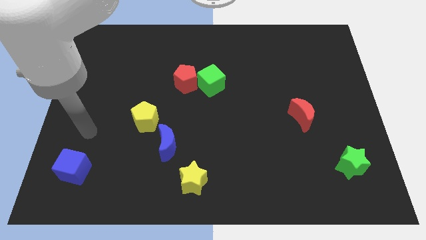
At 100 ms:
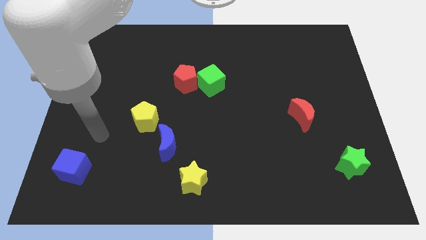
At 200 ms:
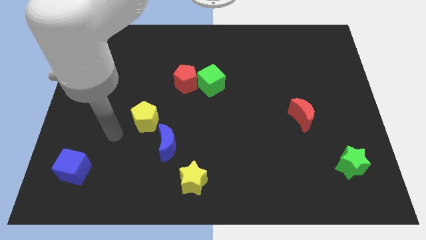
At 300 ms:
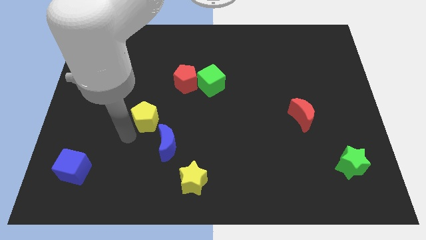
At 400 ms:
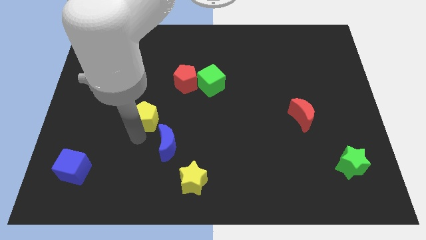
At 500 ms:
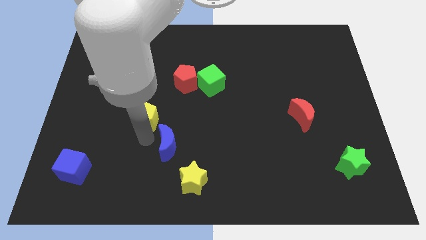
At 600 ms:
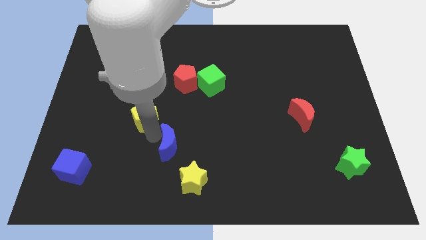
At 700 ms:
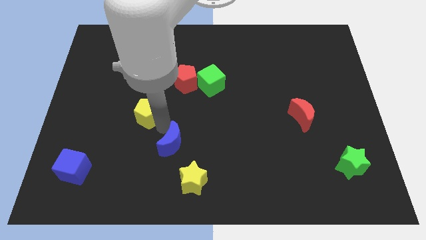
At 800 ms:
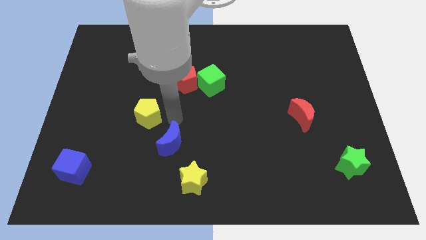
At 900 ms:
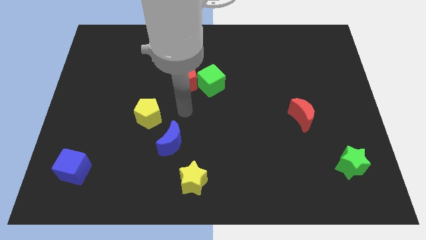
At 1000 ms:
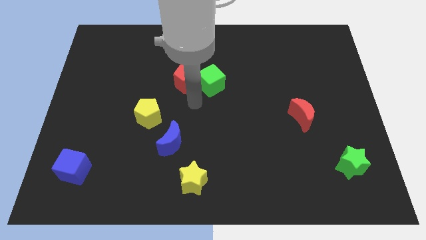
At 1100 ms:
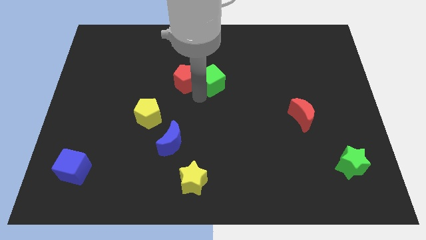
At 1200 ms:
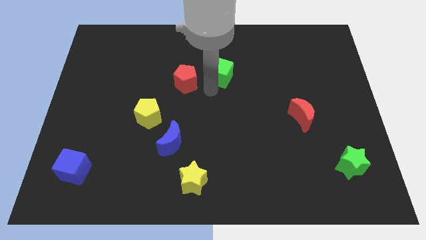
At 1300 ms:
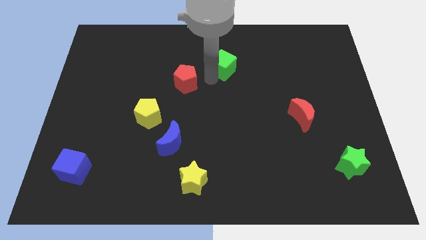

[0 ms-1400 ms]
pull the red pentagon apart from the green cube

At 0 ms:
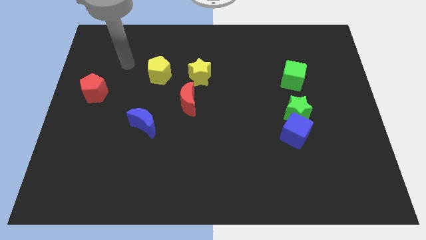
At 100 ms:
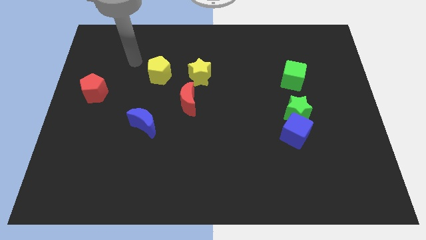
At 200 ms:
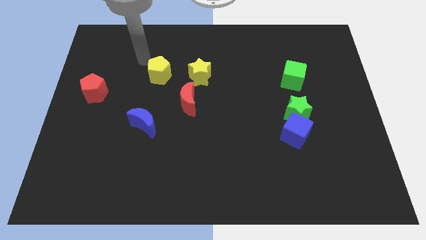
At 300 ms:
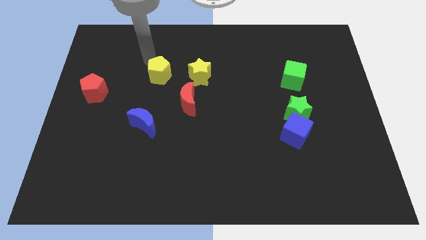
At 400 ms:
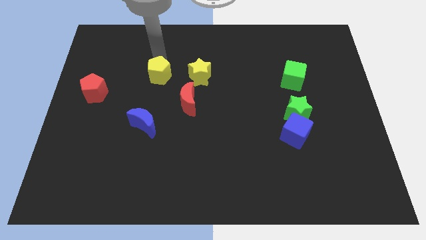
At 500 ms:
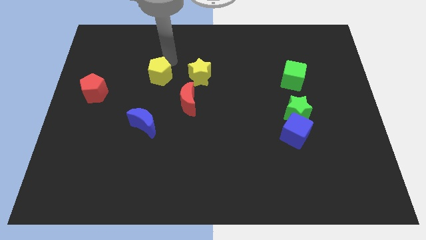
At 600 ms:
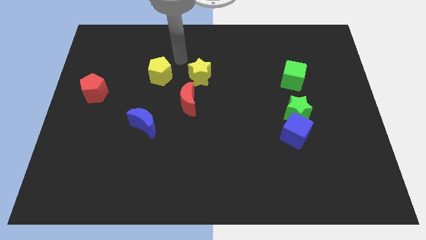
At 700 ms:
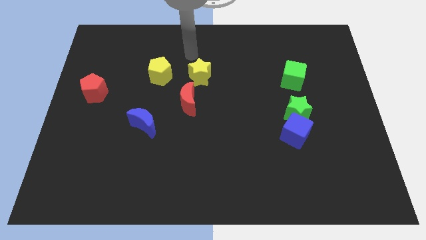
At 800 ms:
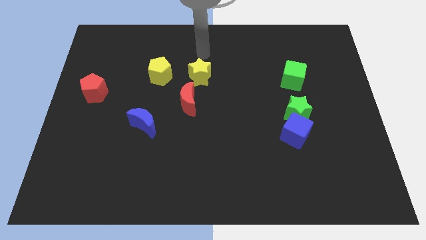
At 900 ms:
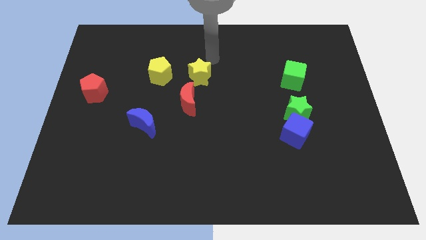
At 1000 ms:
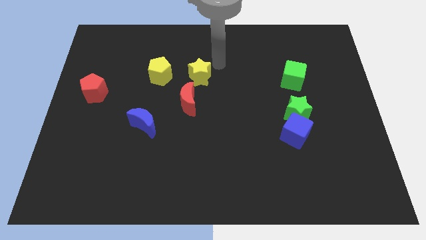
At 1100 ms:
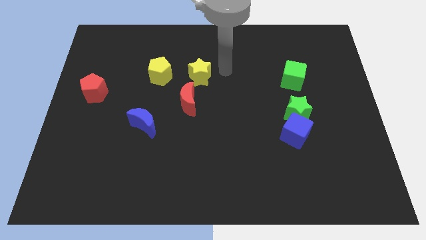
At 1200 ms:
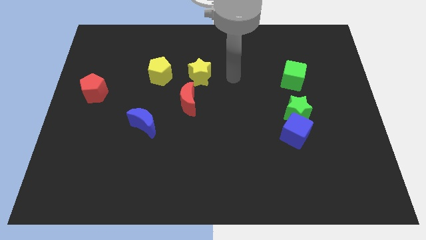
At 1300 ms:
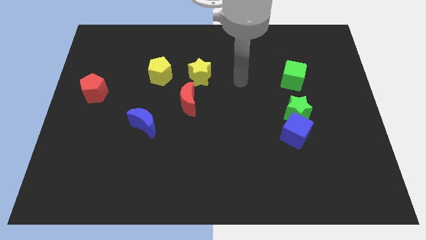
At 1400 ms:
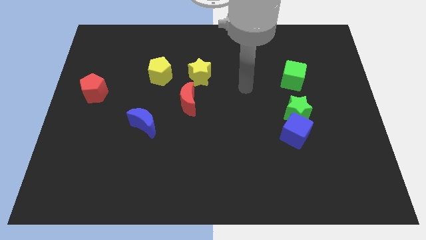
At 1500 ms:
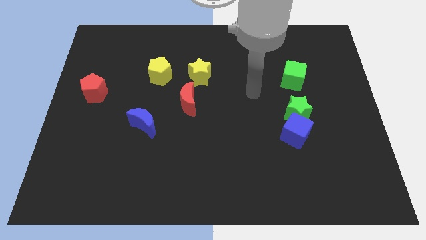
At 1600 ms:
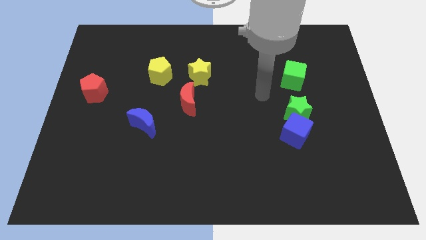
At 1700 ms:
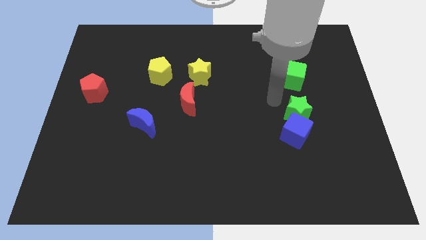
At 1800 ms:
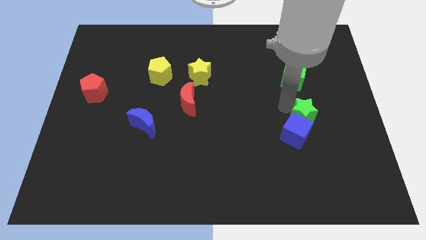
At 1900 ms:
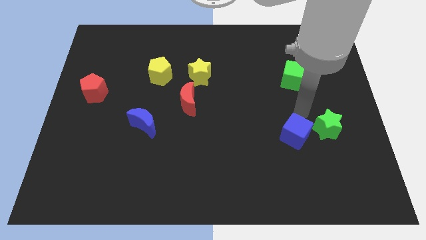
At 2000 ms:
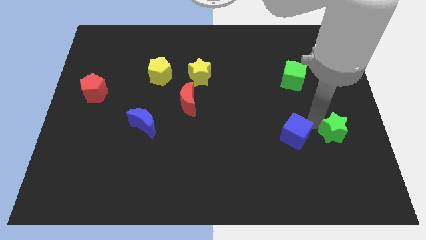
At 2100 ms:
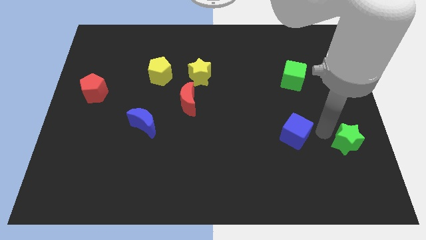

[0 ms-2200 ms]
move the blue cube away from the green star

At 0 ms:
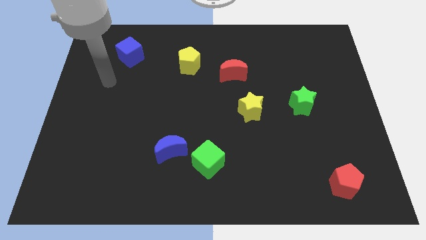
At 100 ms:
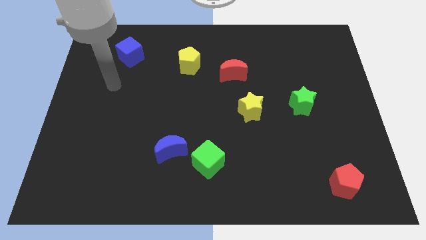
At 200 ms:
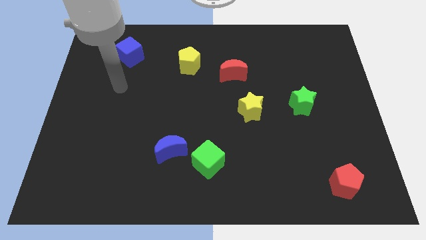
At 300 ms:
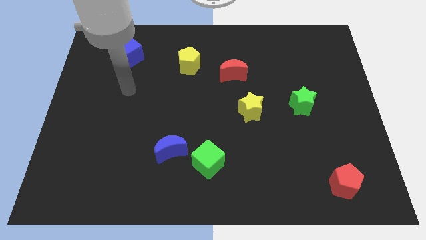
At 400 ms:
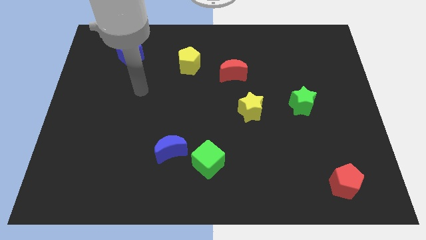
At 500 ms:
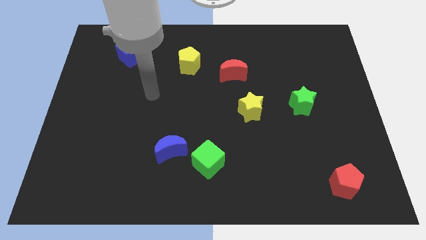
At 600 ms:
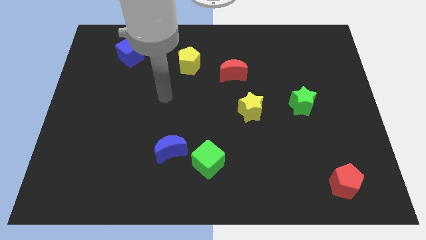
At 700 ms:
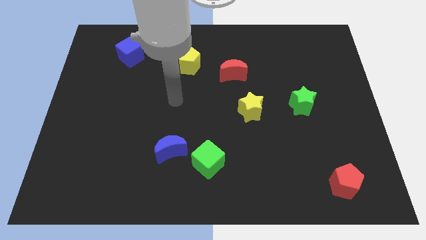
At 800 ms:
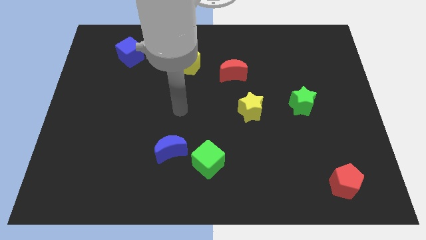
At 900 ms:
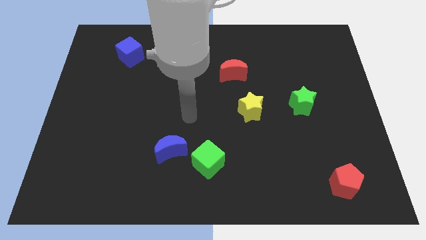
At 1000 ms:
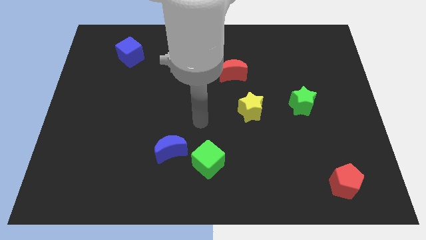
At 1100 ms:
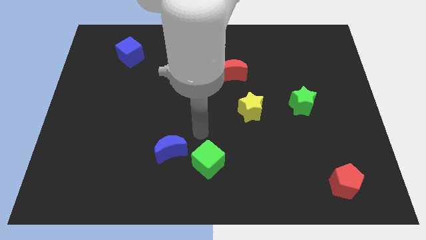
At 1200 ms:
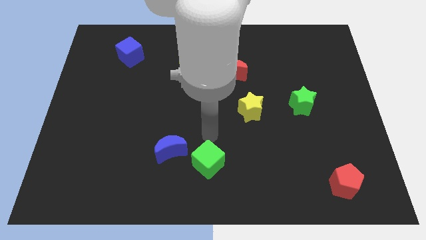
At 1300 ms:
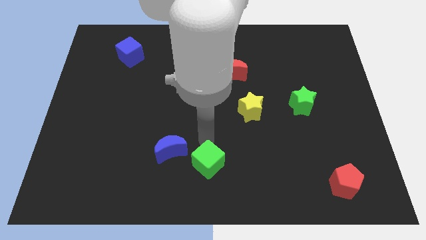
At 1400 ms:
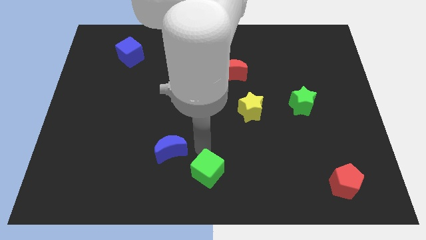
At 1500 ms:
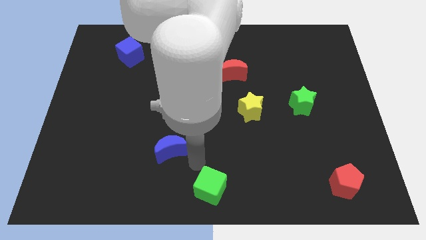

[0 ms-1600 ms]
pull the blue moon apart from the green cube

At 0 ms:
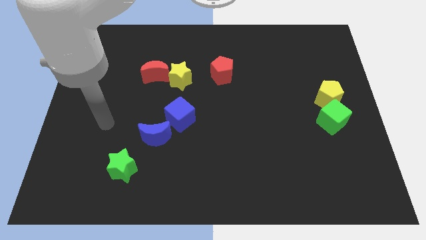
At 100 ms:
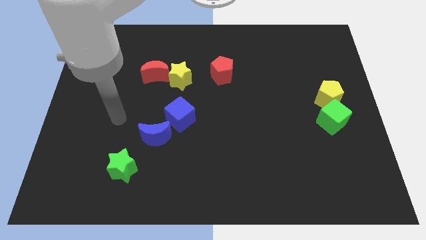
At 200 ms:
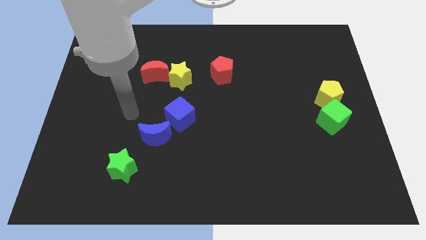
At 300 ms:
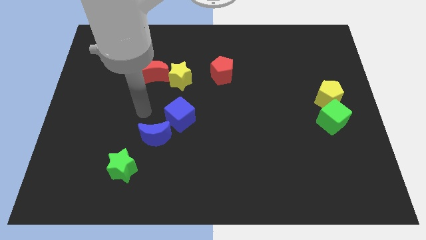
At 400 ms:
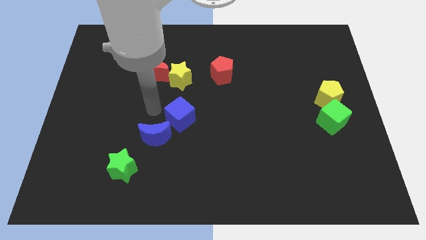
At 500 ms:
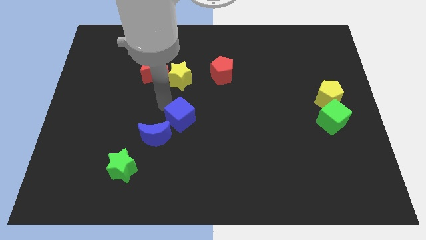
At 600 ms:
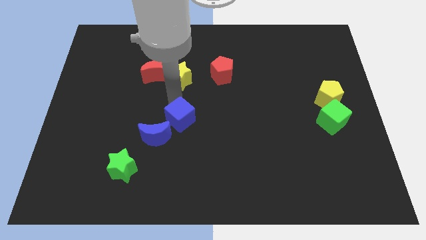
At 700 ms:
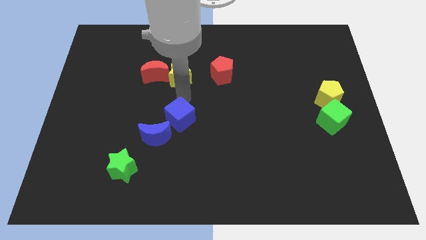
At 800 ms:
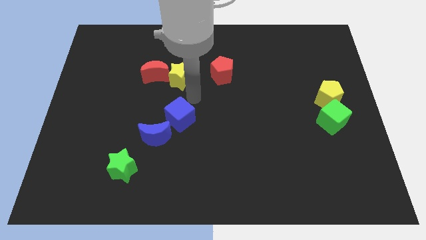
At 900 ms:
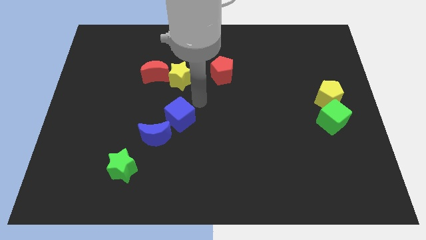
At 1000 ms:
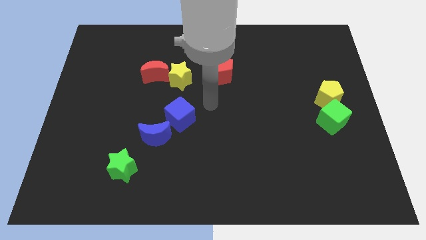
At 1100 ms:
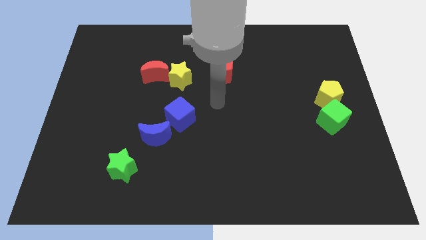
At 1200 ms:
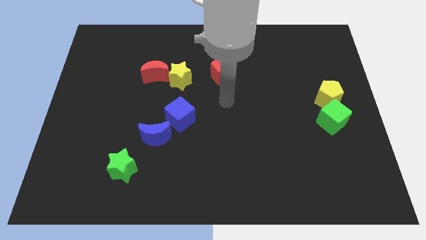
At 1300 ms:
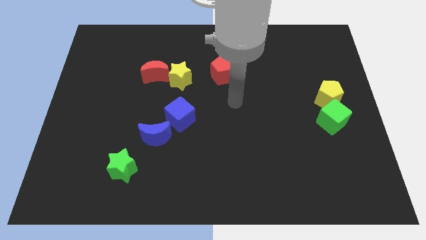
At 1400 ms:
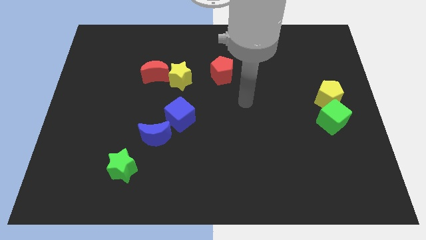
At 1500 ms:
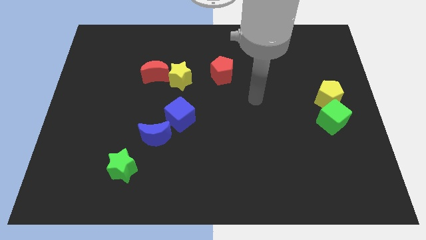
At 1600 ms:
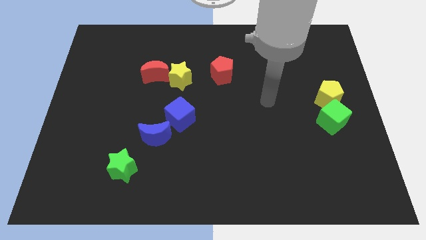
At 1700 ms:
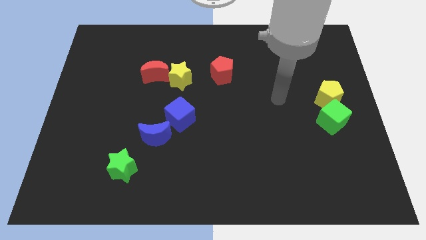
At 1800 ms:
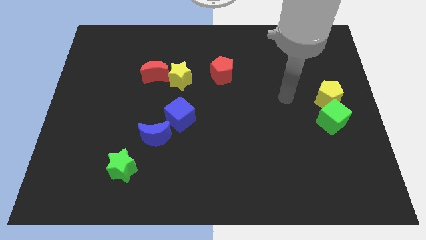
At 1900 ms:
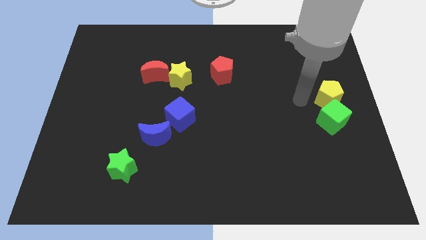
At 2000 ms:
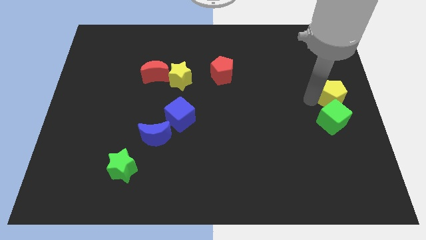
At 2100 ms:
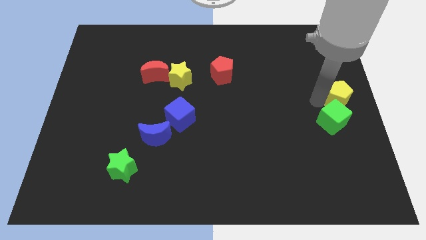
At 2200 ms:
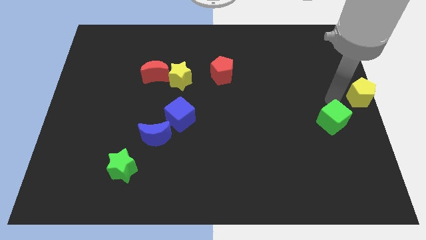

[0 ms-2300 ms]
separate the green cube from the yellow pentagon

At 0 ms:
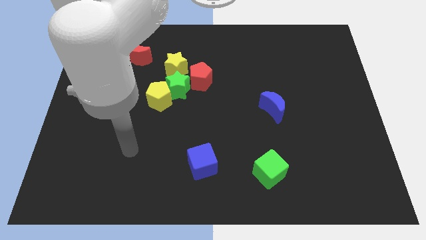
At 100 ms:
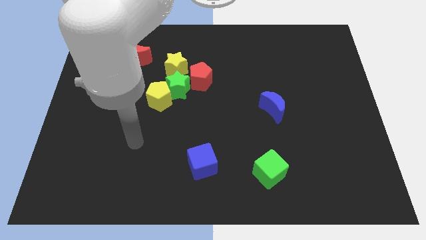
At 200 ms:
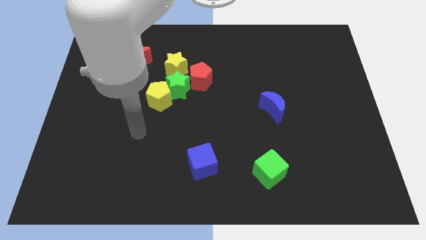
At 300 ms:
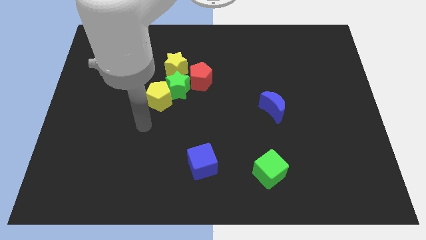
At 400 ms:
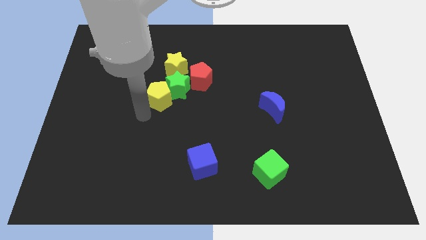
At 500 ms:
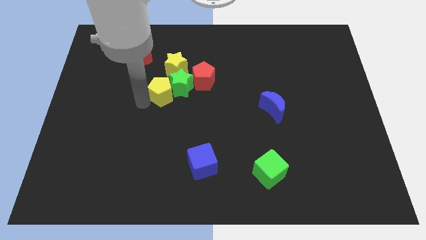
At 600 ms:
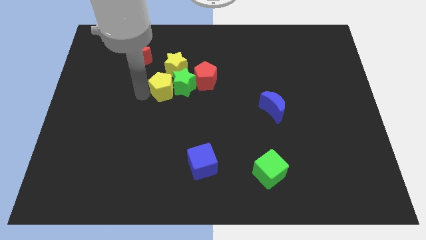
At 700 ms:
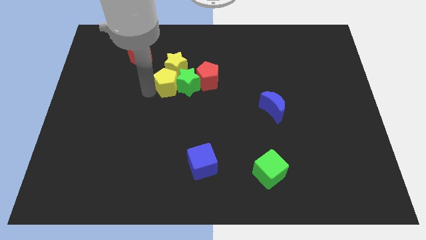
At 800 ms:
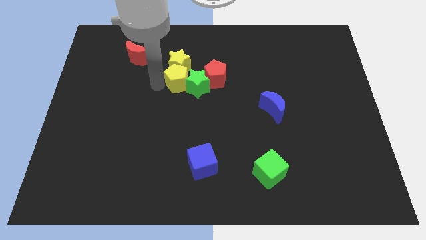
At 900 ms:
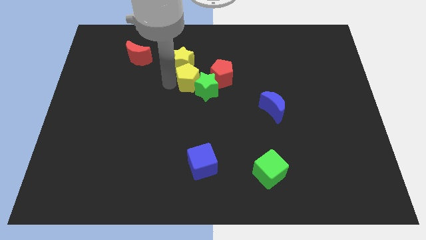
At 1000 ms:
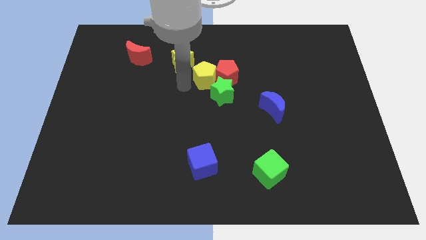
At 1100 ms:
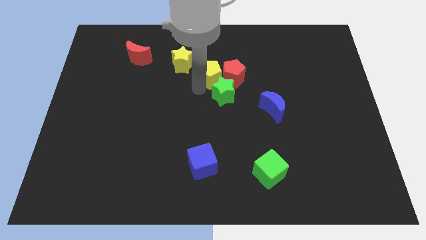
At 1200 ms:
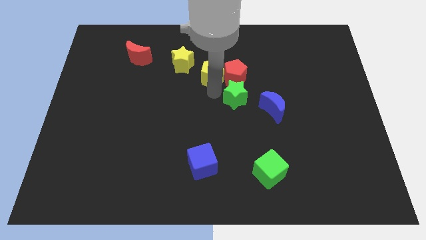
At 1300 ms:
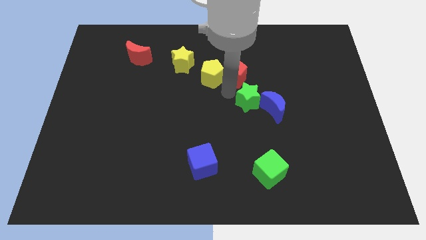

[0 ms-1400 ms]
separate the yellow pentagon from the green star

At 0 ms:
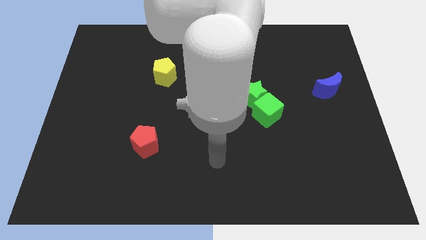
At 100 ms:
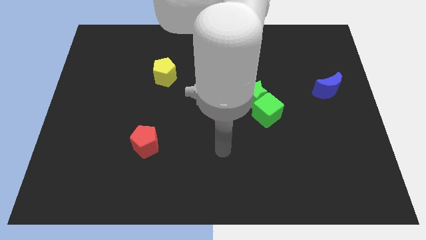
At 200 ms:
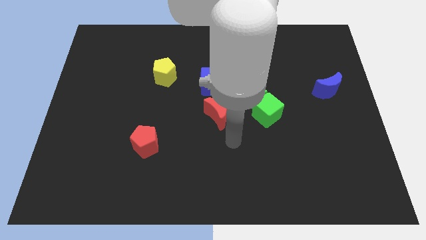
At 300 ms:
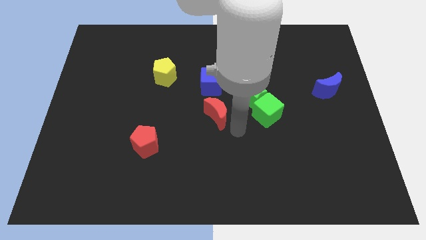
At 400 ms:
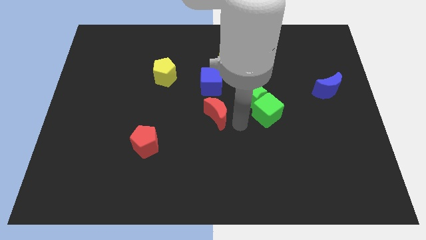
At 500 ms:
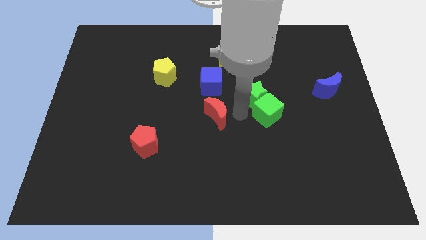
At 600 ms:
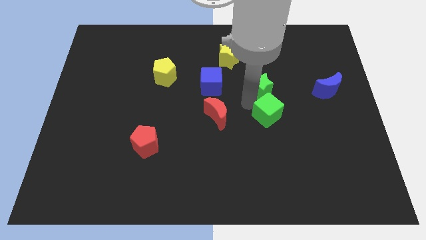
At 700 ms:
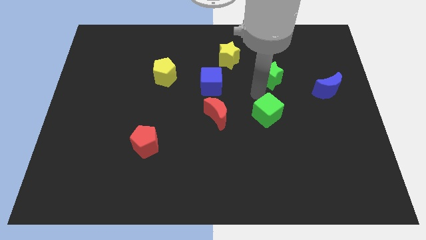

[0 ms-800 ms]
move the green cube away from the green star
